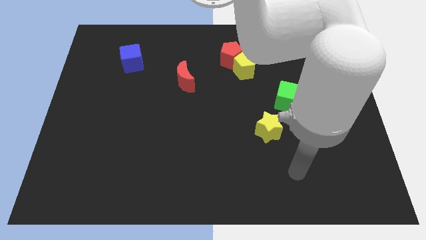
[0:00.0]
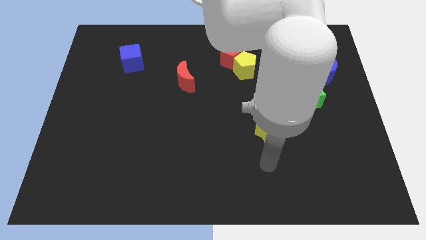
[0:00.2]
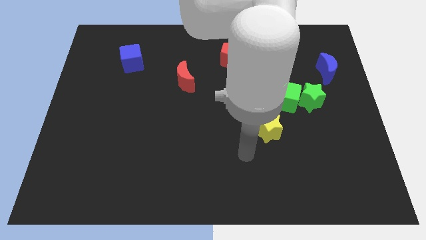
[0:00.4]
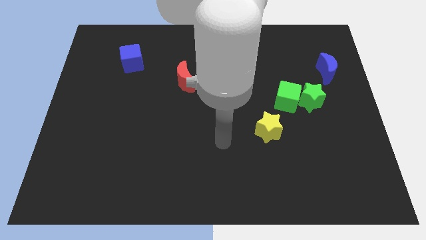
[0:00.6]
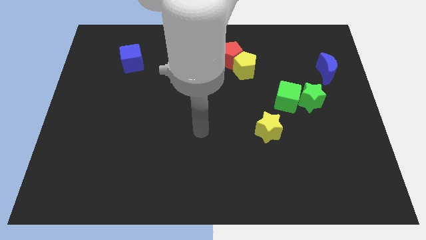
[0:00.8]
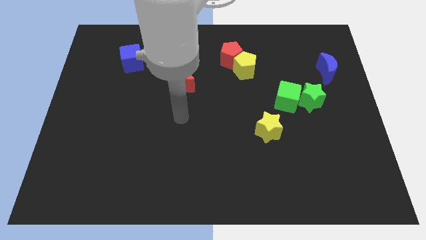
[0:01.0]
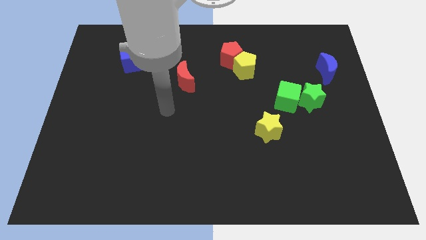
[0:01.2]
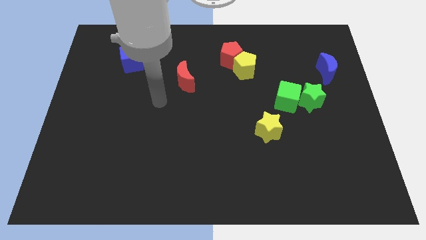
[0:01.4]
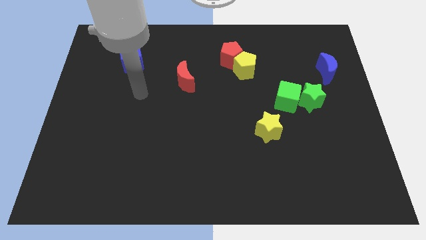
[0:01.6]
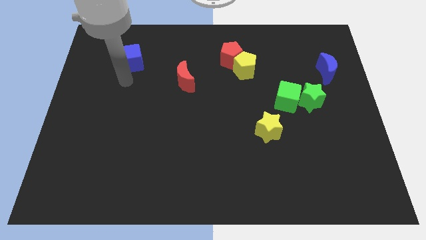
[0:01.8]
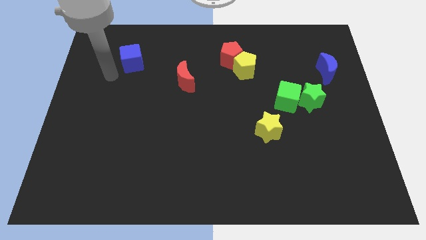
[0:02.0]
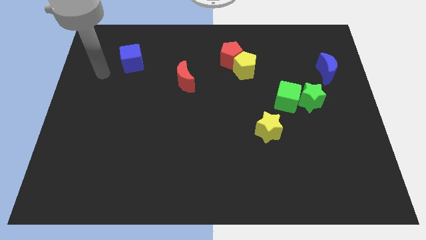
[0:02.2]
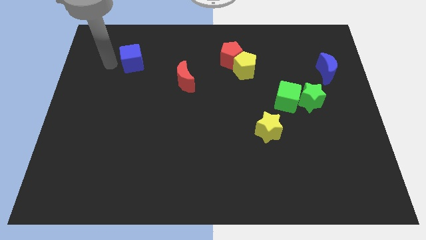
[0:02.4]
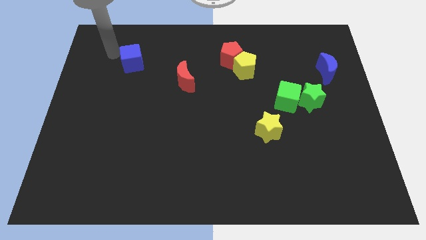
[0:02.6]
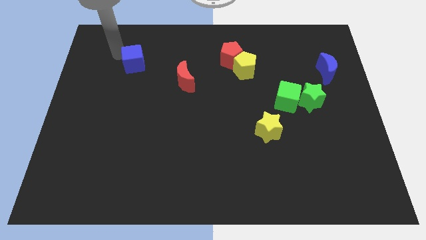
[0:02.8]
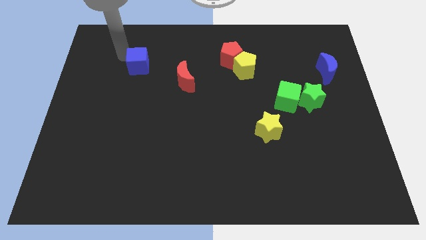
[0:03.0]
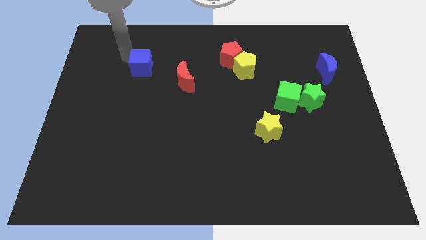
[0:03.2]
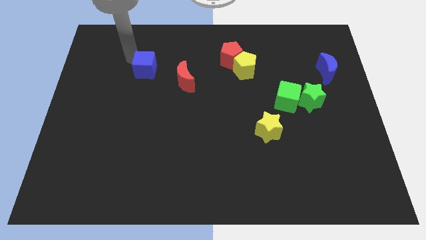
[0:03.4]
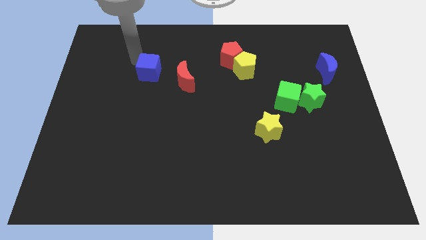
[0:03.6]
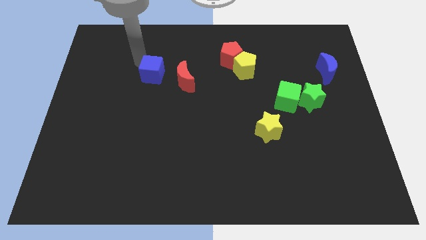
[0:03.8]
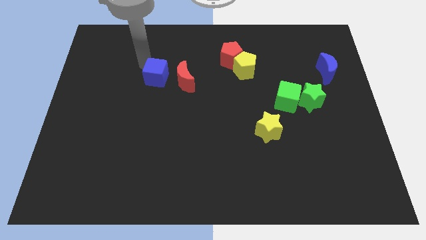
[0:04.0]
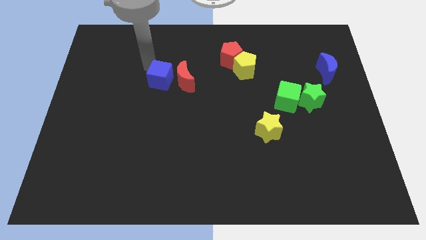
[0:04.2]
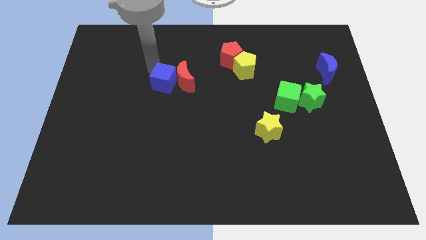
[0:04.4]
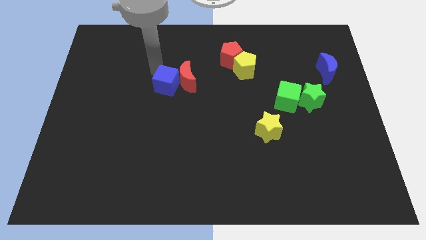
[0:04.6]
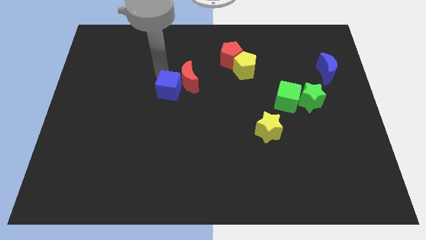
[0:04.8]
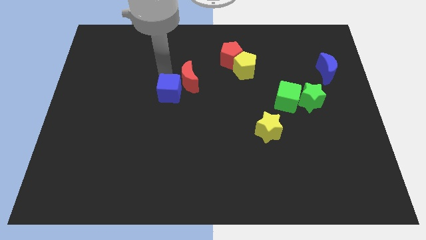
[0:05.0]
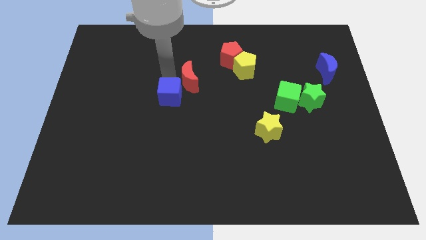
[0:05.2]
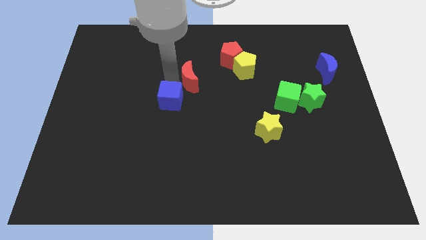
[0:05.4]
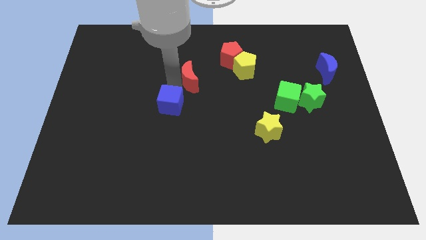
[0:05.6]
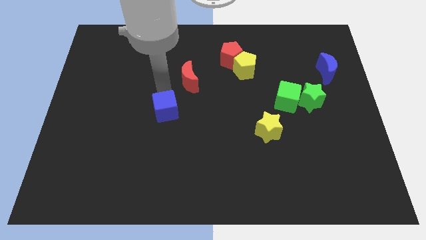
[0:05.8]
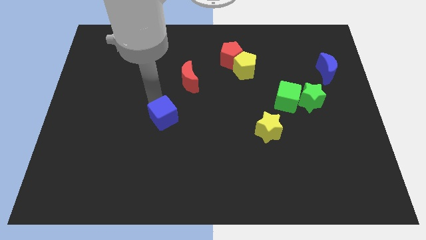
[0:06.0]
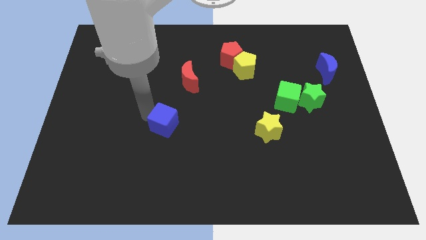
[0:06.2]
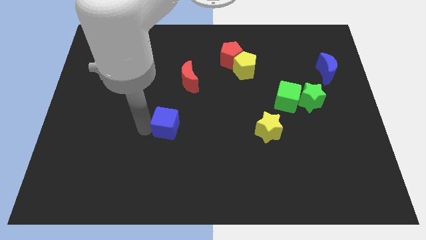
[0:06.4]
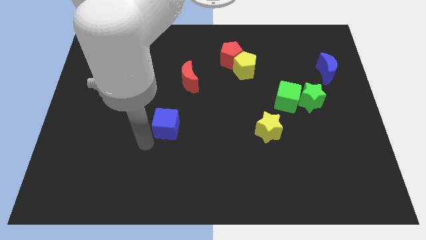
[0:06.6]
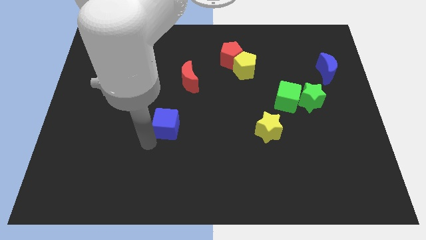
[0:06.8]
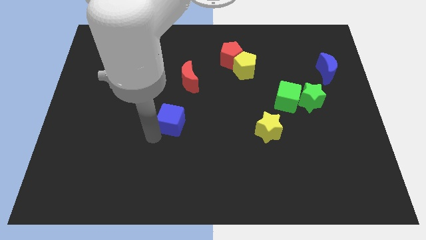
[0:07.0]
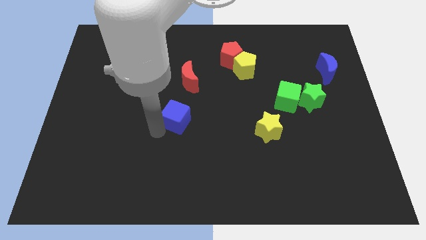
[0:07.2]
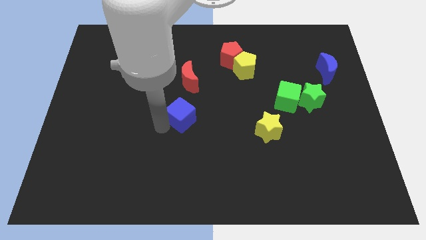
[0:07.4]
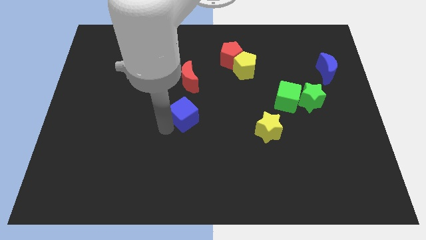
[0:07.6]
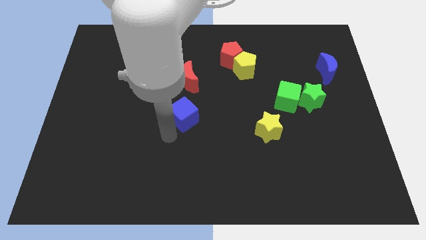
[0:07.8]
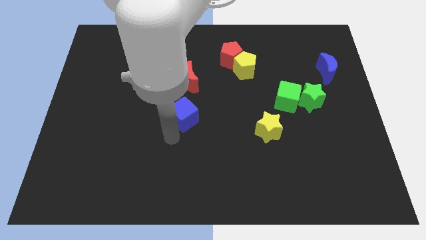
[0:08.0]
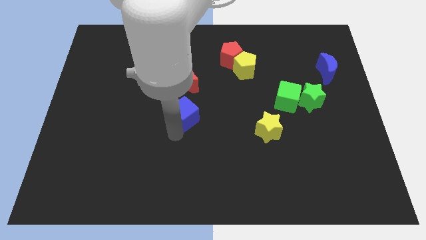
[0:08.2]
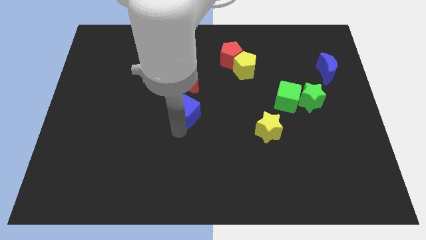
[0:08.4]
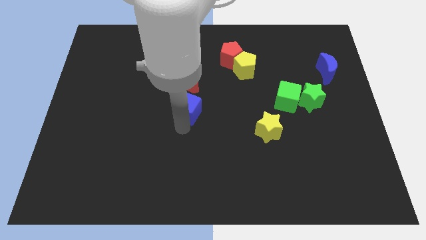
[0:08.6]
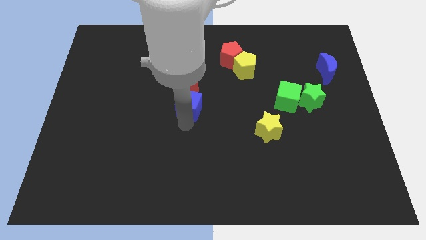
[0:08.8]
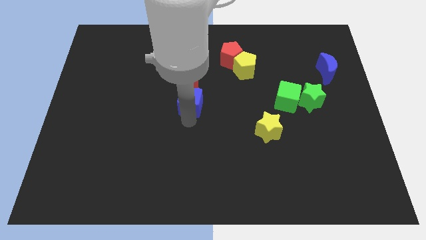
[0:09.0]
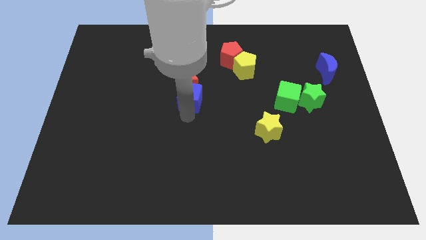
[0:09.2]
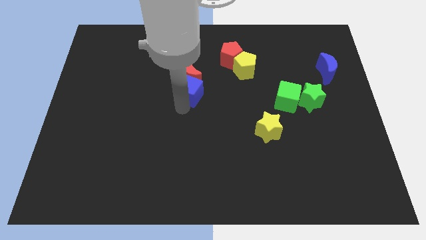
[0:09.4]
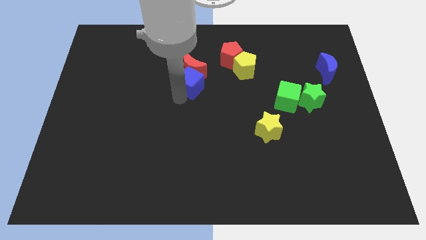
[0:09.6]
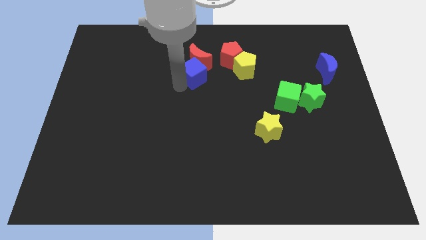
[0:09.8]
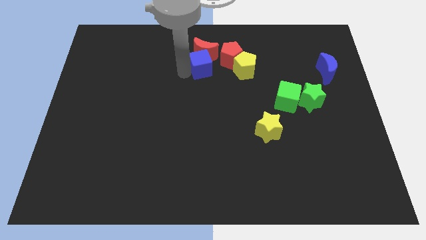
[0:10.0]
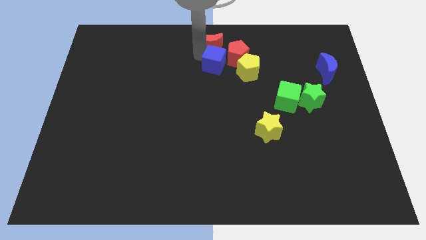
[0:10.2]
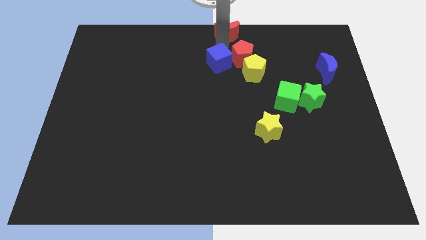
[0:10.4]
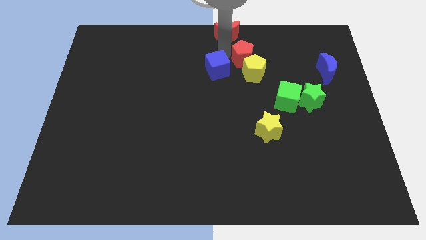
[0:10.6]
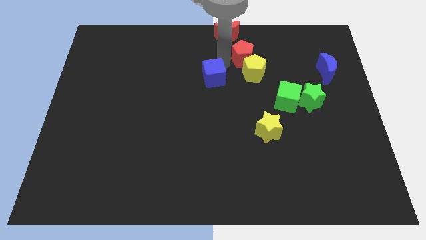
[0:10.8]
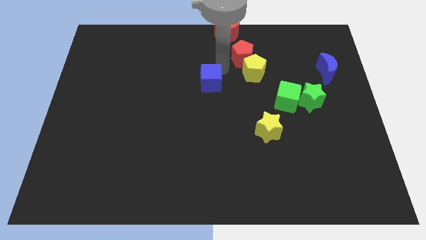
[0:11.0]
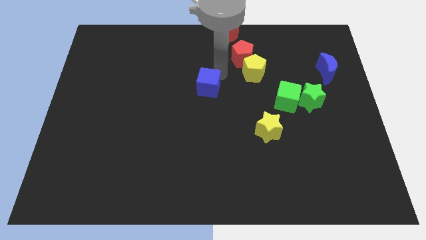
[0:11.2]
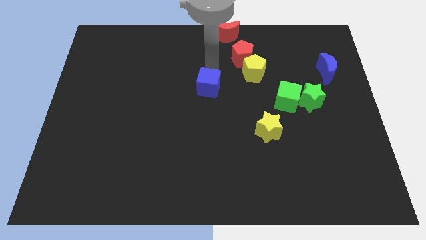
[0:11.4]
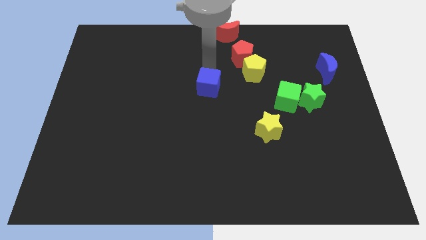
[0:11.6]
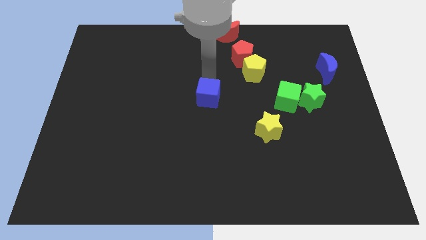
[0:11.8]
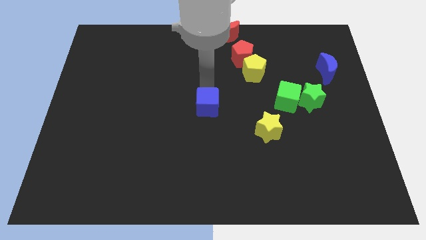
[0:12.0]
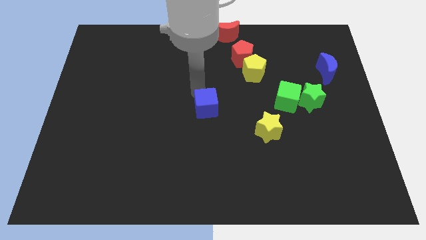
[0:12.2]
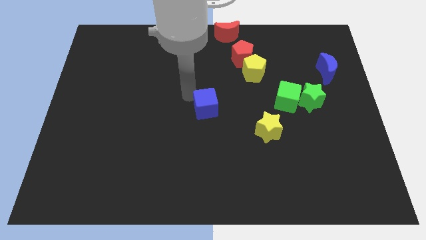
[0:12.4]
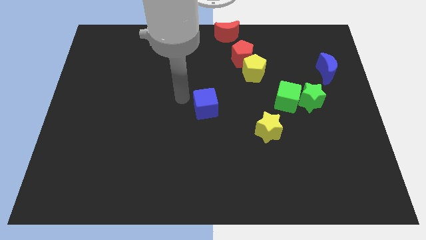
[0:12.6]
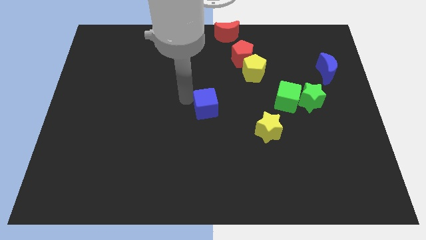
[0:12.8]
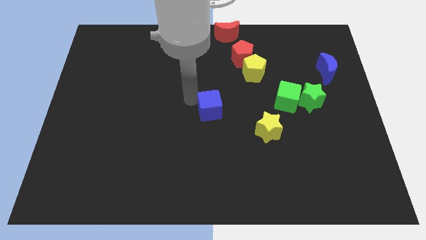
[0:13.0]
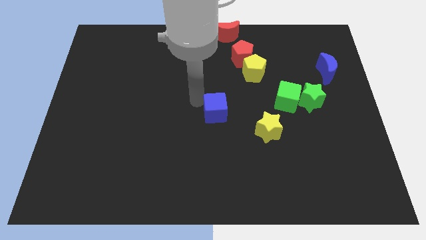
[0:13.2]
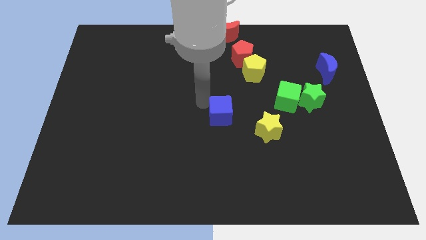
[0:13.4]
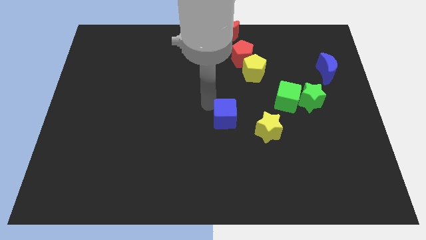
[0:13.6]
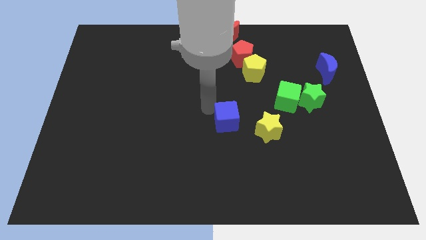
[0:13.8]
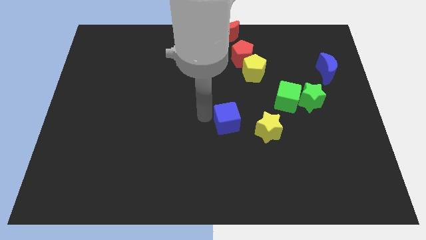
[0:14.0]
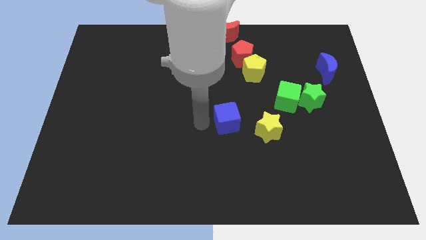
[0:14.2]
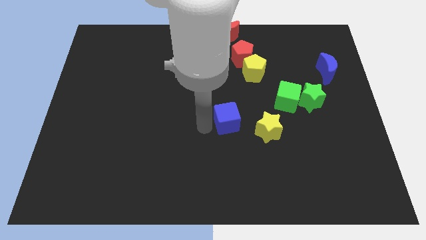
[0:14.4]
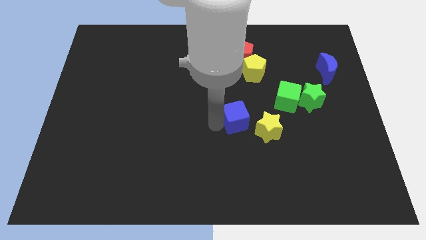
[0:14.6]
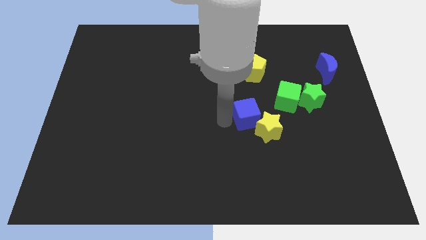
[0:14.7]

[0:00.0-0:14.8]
slide the blue cube to the yellow star

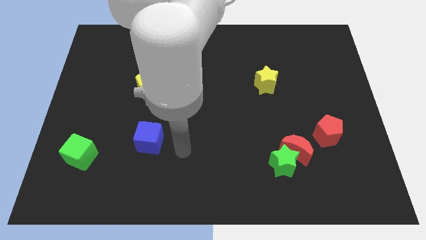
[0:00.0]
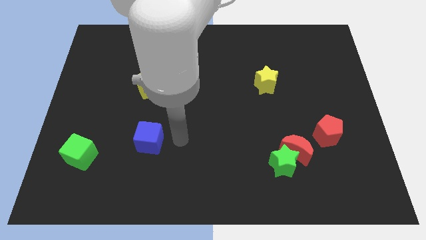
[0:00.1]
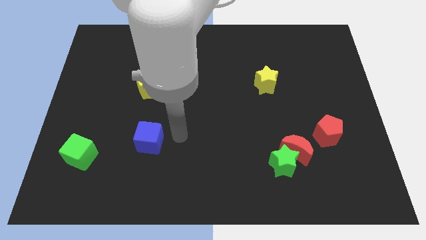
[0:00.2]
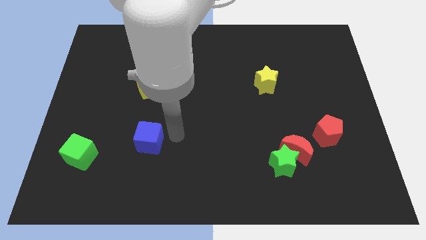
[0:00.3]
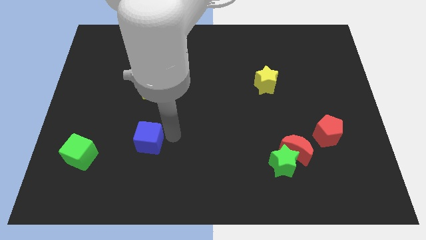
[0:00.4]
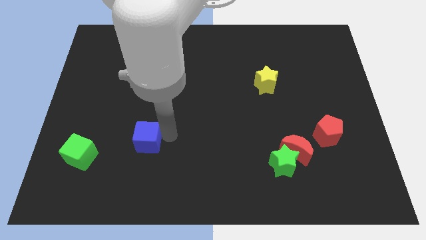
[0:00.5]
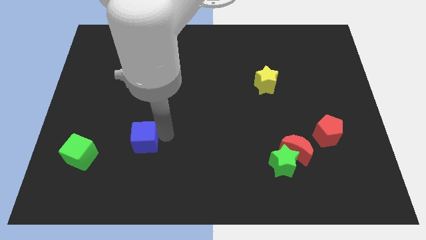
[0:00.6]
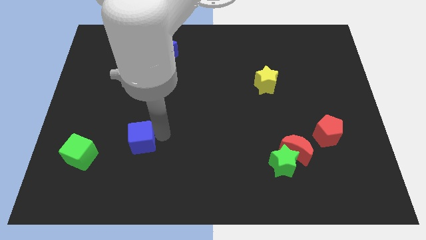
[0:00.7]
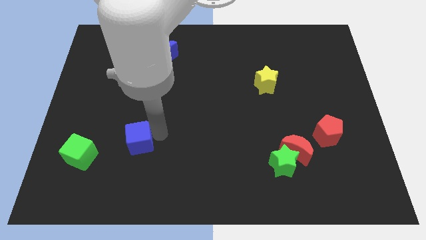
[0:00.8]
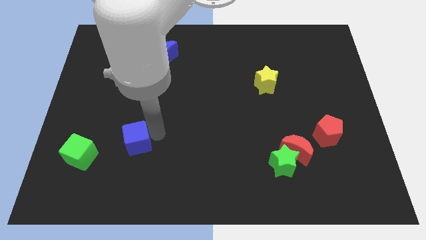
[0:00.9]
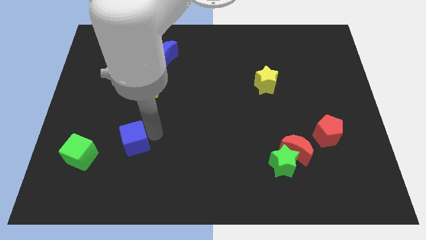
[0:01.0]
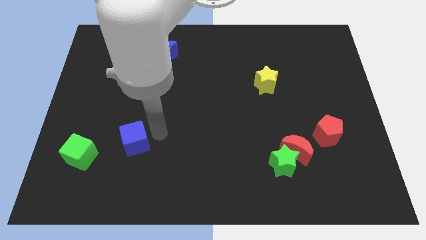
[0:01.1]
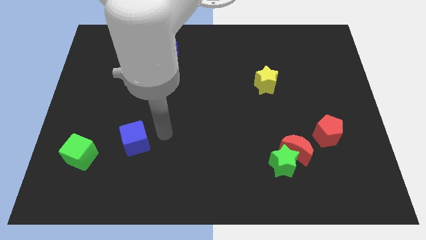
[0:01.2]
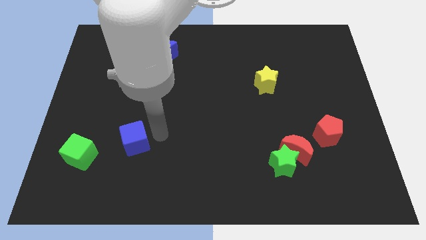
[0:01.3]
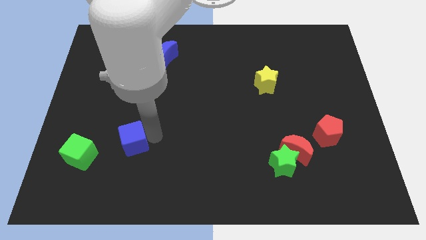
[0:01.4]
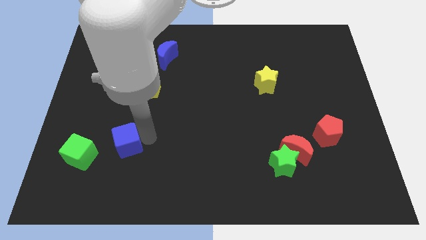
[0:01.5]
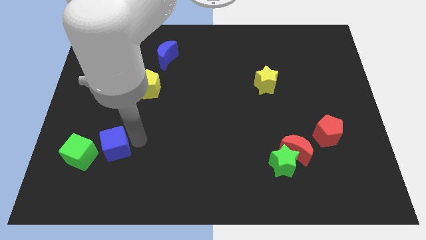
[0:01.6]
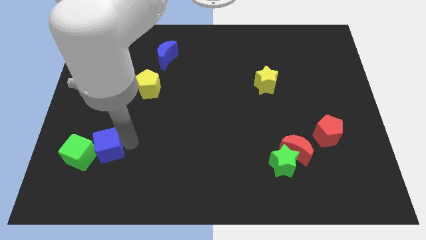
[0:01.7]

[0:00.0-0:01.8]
push the blue cube to the green cube
